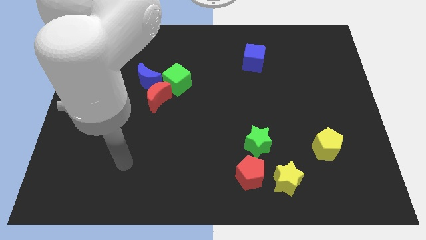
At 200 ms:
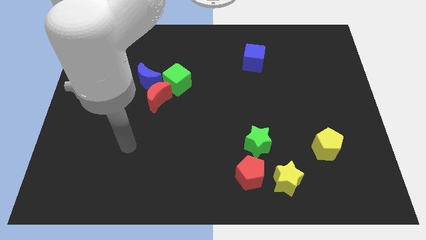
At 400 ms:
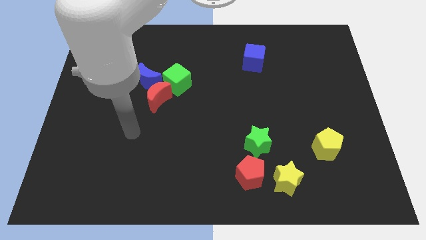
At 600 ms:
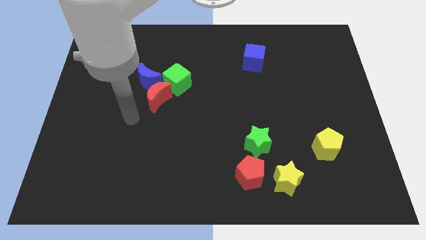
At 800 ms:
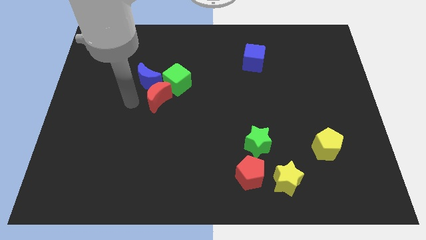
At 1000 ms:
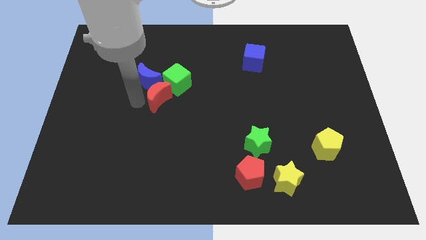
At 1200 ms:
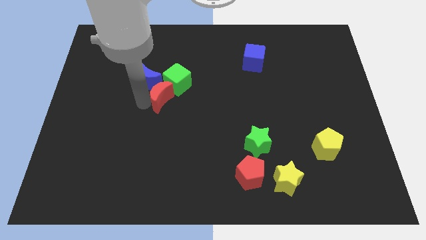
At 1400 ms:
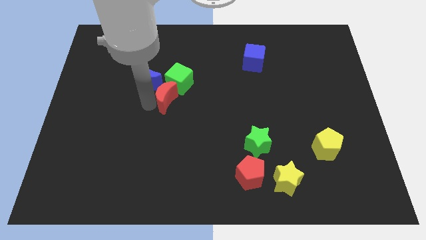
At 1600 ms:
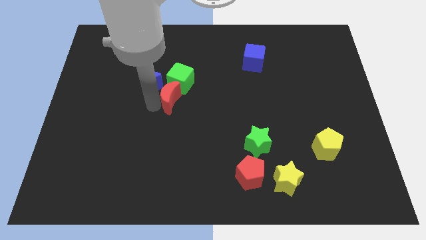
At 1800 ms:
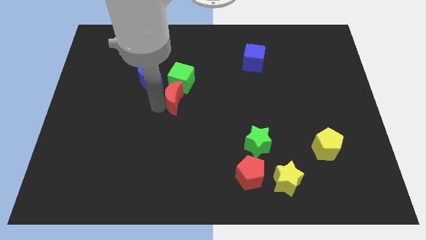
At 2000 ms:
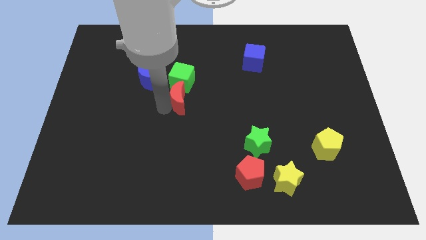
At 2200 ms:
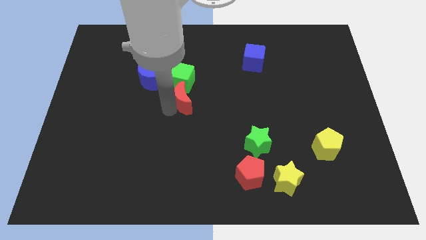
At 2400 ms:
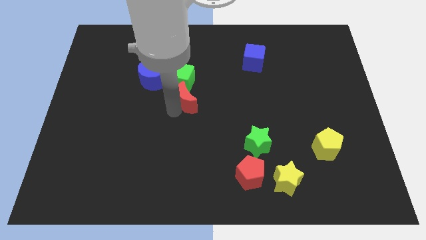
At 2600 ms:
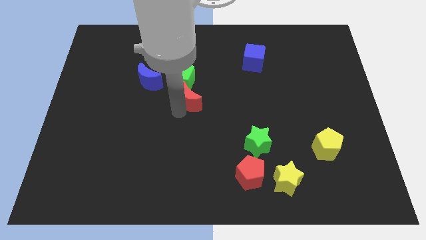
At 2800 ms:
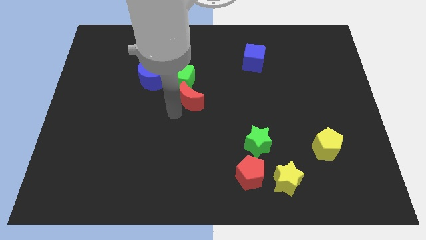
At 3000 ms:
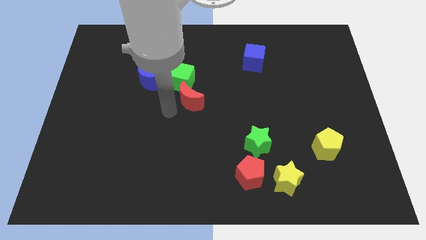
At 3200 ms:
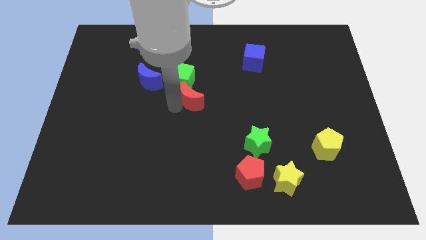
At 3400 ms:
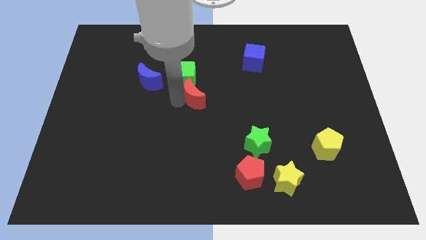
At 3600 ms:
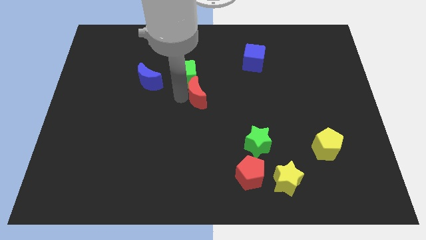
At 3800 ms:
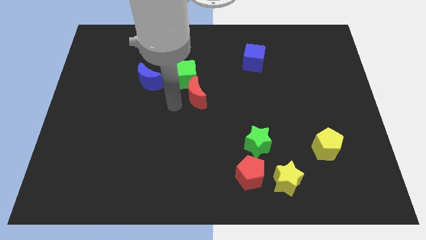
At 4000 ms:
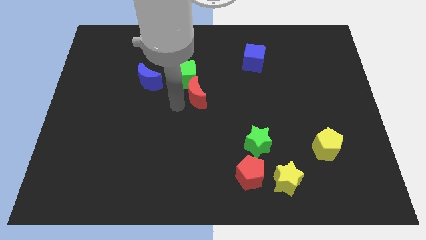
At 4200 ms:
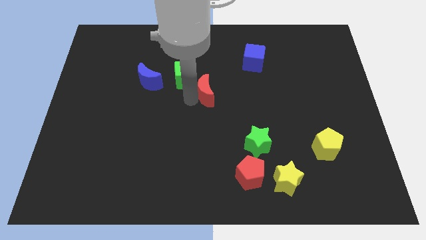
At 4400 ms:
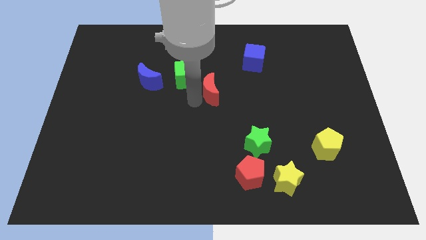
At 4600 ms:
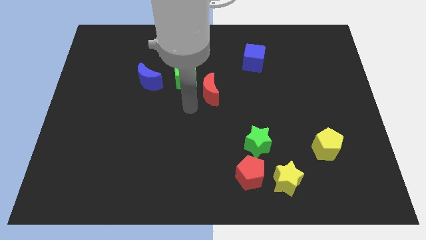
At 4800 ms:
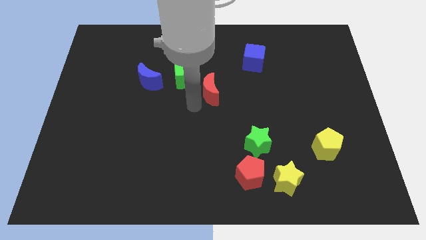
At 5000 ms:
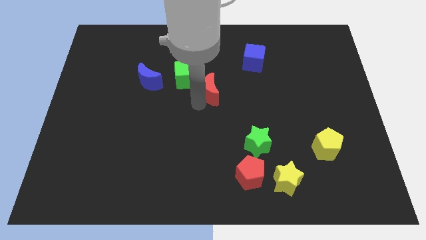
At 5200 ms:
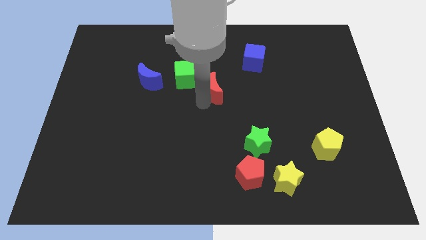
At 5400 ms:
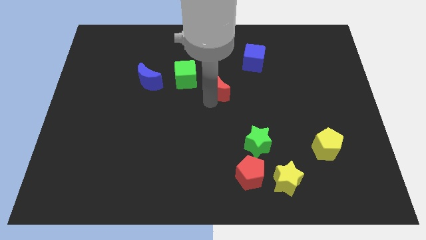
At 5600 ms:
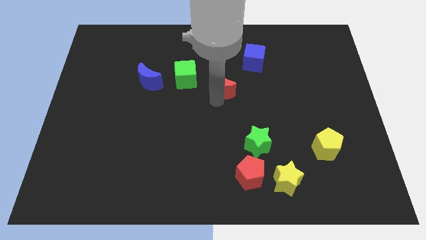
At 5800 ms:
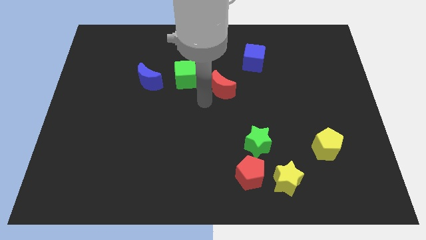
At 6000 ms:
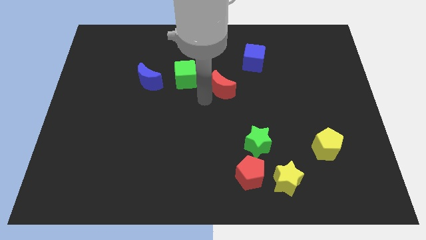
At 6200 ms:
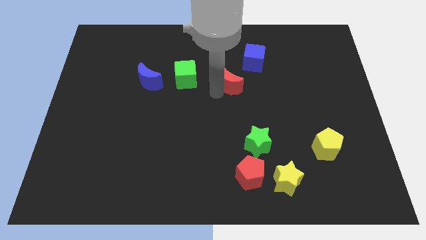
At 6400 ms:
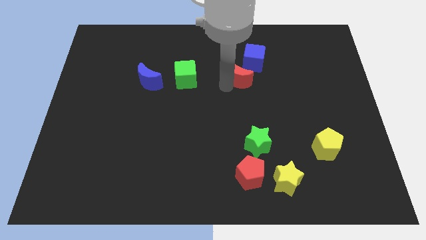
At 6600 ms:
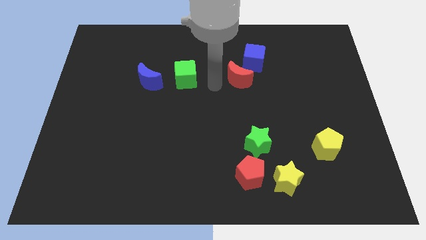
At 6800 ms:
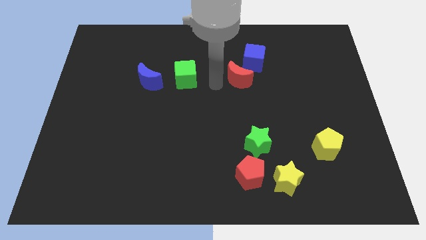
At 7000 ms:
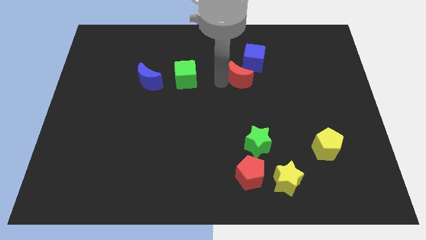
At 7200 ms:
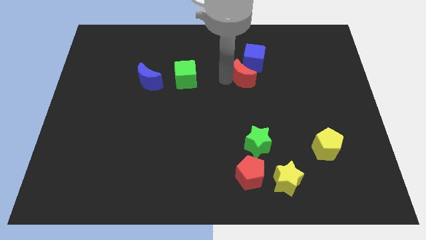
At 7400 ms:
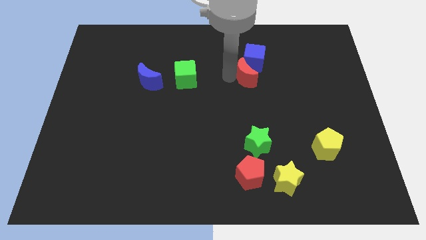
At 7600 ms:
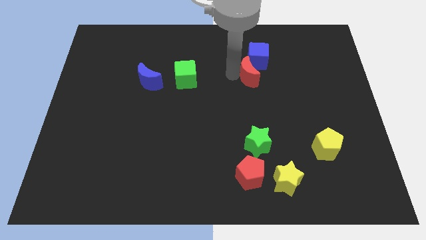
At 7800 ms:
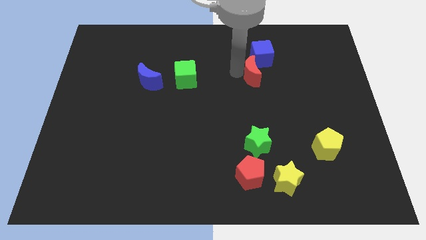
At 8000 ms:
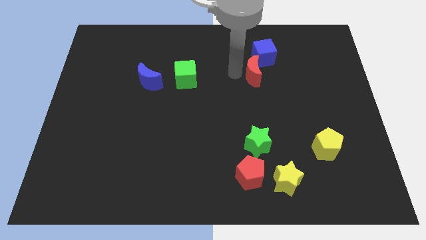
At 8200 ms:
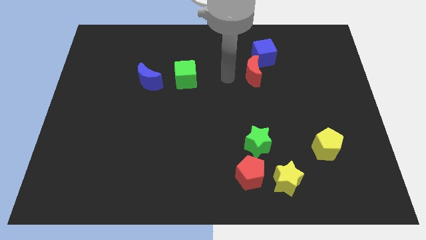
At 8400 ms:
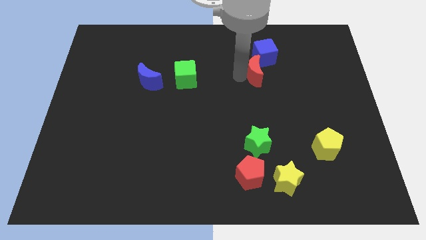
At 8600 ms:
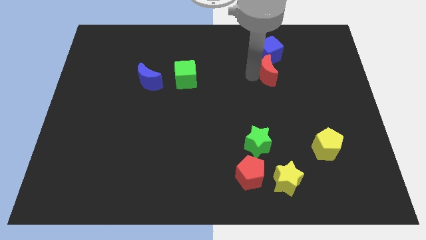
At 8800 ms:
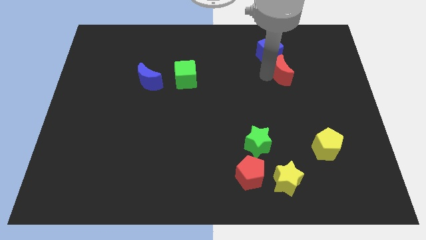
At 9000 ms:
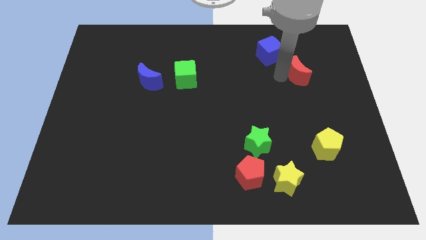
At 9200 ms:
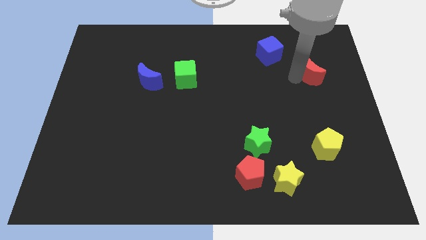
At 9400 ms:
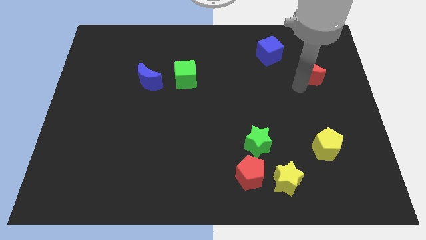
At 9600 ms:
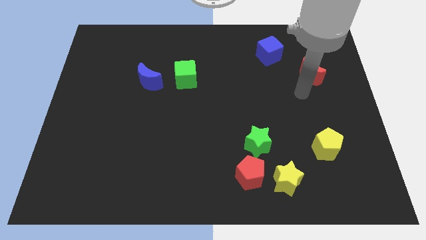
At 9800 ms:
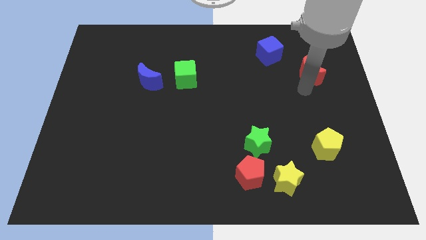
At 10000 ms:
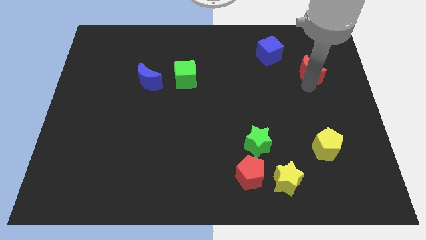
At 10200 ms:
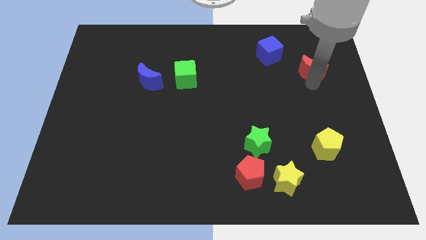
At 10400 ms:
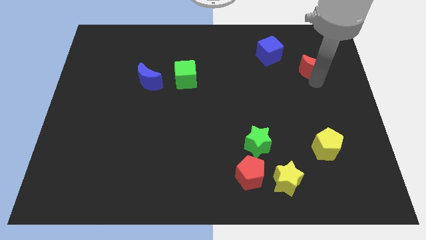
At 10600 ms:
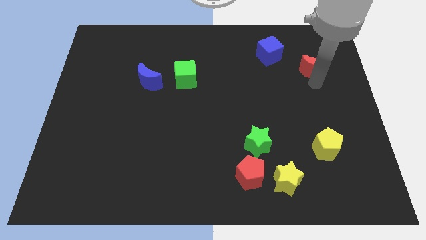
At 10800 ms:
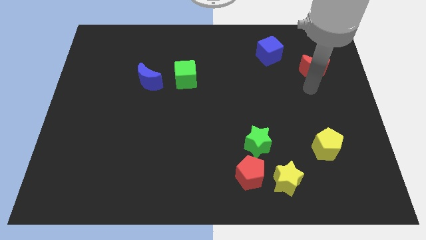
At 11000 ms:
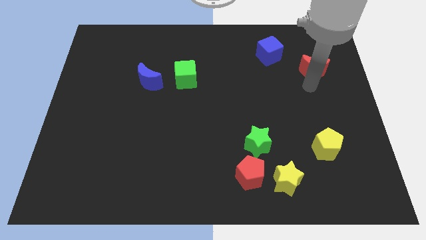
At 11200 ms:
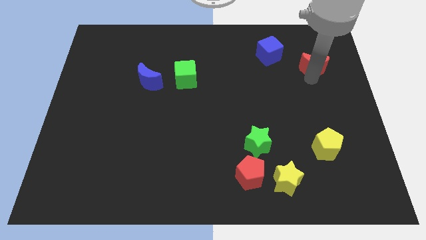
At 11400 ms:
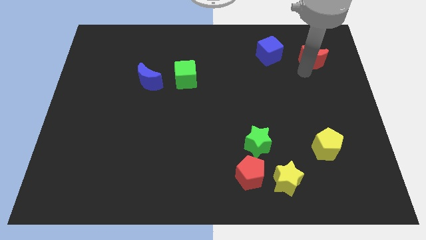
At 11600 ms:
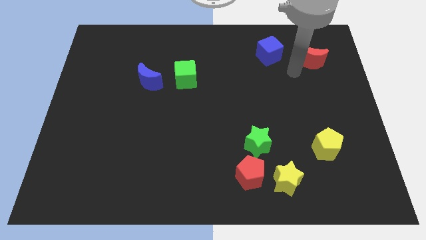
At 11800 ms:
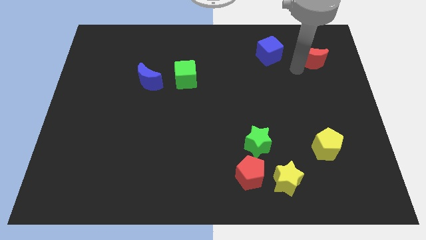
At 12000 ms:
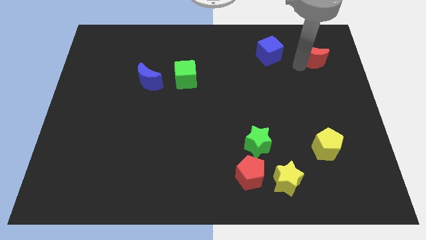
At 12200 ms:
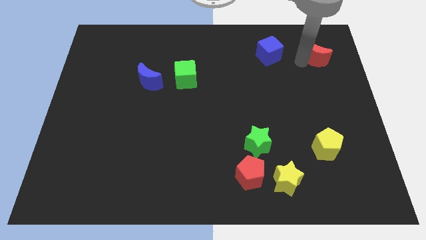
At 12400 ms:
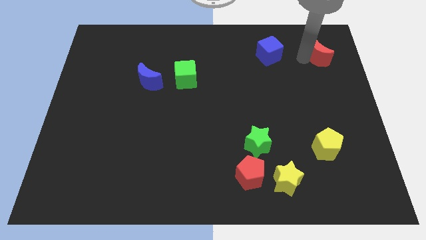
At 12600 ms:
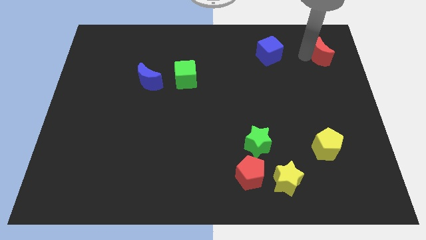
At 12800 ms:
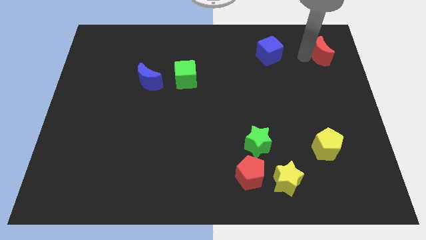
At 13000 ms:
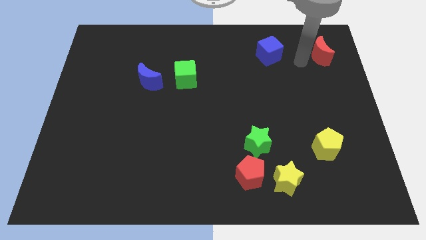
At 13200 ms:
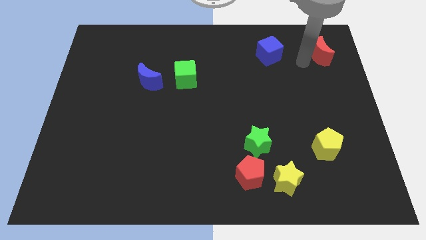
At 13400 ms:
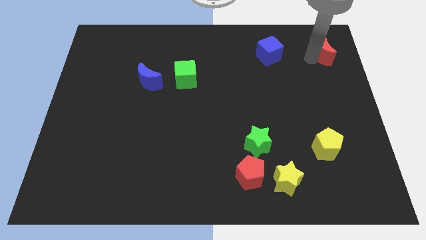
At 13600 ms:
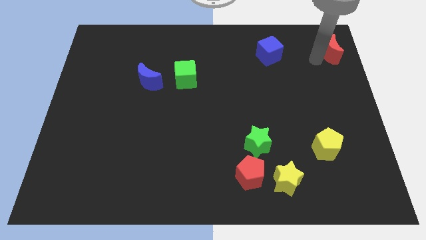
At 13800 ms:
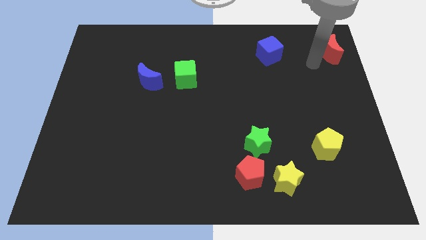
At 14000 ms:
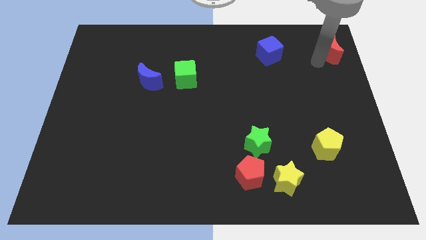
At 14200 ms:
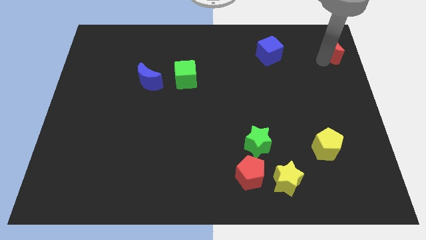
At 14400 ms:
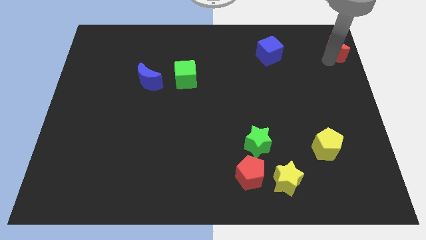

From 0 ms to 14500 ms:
push the red moon to the top right of the board
